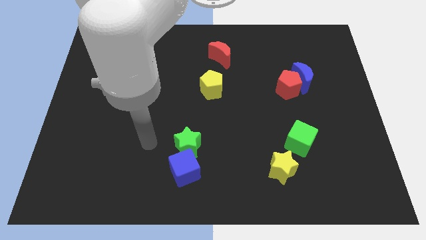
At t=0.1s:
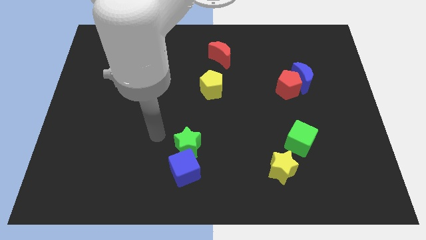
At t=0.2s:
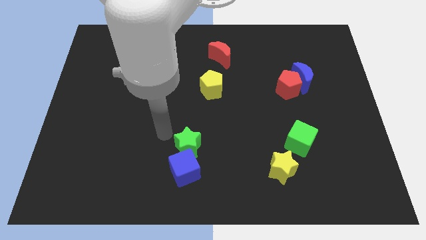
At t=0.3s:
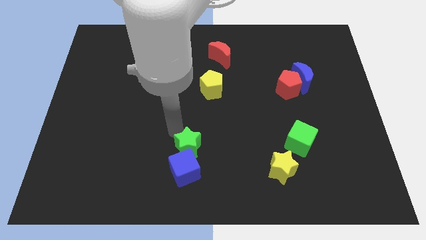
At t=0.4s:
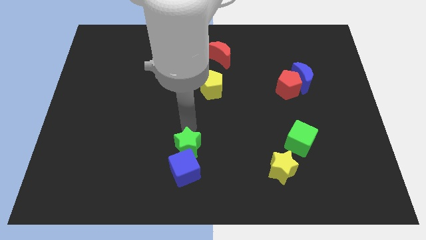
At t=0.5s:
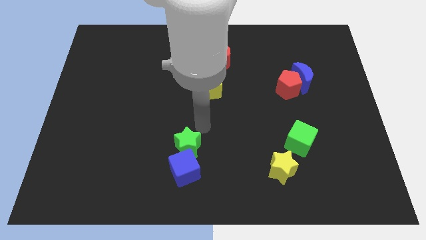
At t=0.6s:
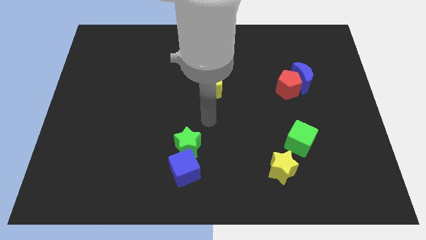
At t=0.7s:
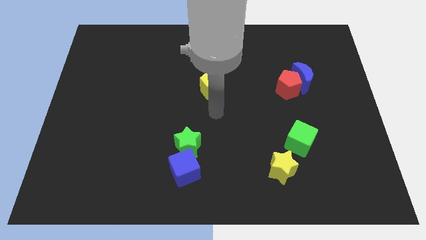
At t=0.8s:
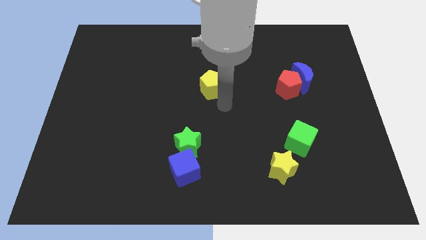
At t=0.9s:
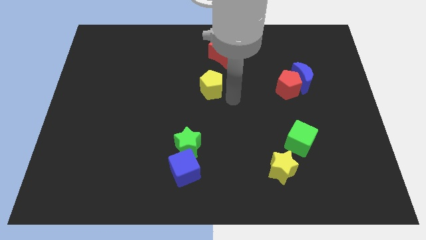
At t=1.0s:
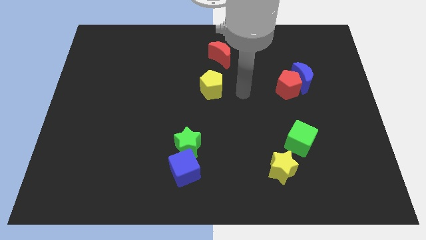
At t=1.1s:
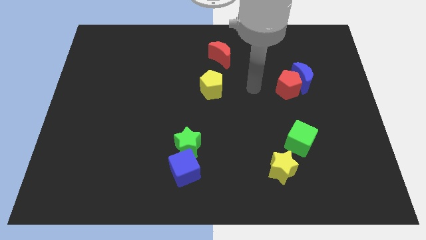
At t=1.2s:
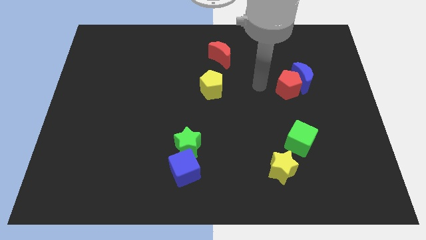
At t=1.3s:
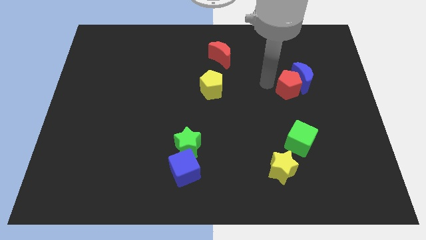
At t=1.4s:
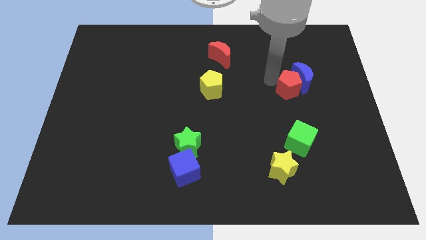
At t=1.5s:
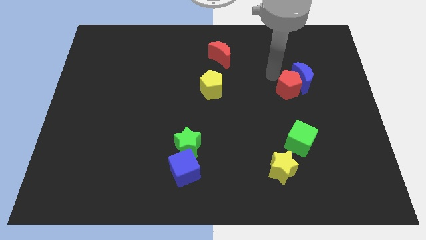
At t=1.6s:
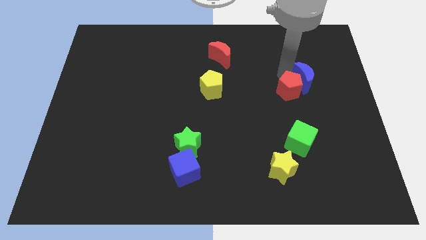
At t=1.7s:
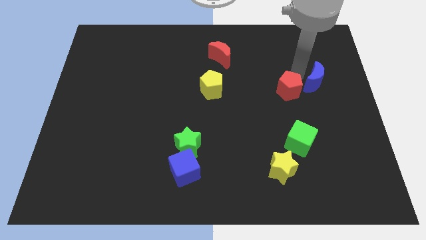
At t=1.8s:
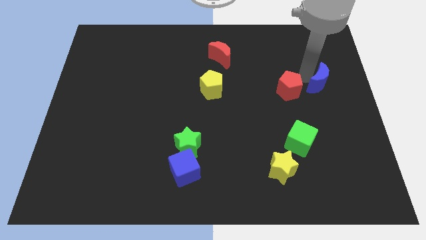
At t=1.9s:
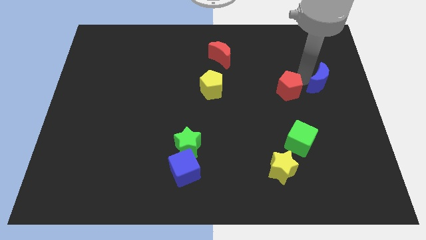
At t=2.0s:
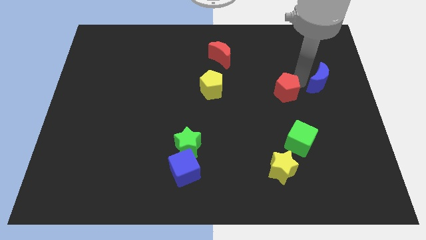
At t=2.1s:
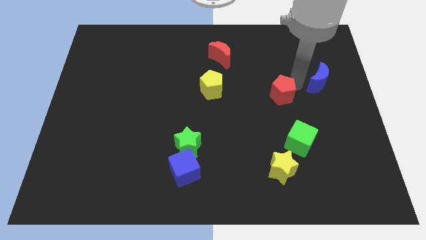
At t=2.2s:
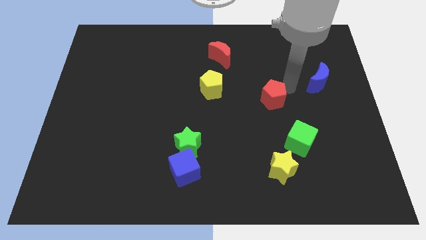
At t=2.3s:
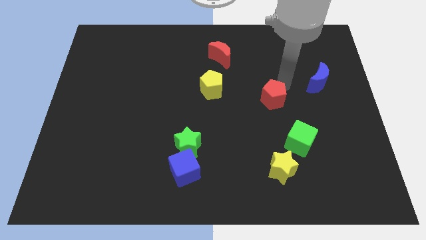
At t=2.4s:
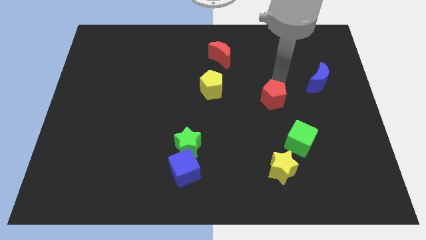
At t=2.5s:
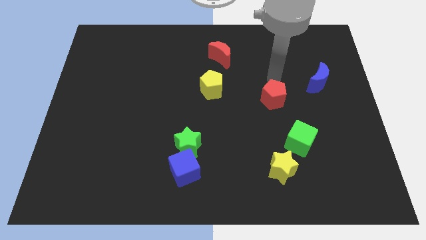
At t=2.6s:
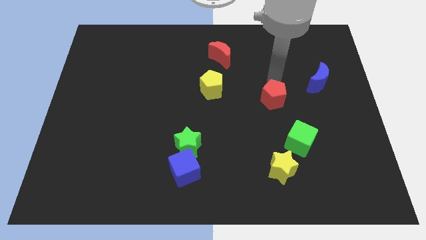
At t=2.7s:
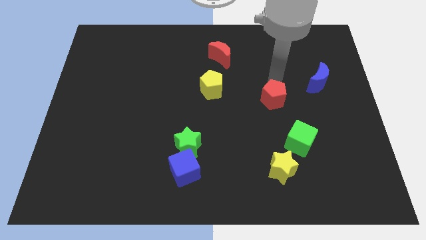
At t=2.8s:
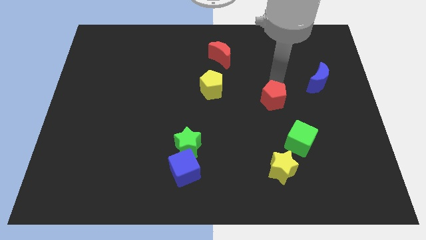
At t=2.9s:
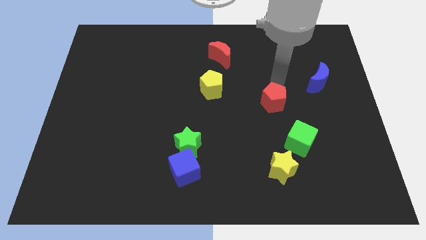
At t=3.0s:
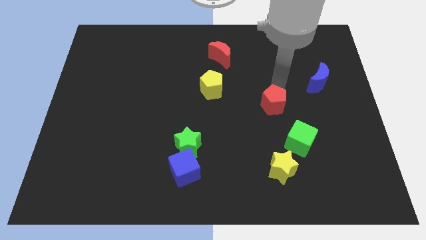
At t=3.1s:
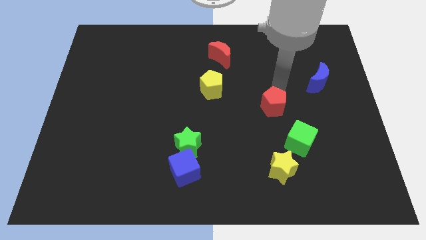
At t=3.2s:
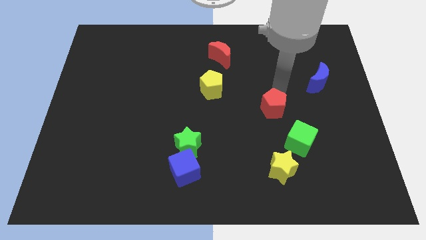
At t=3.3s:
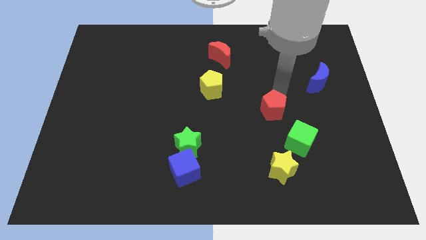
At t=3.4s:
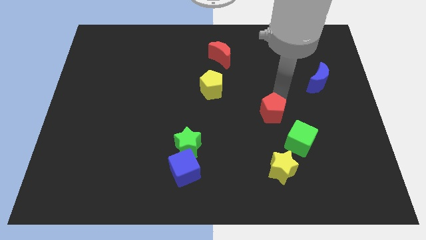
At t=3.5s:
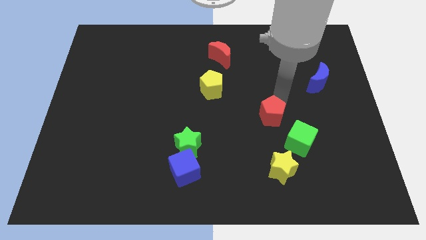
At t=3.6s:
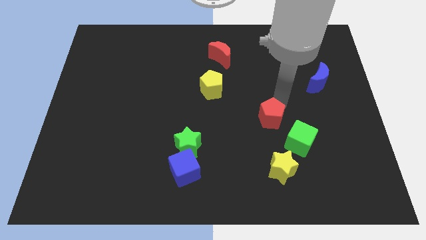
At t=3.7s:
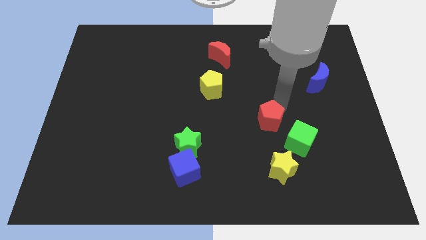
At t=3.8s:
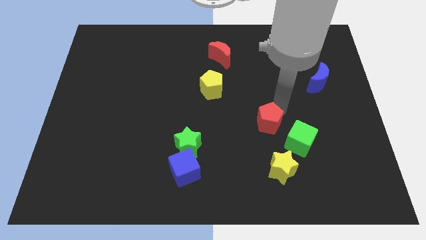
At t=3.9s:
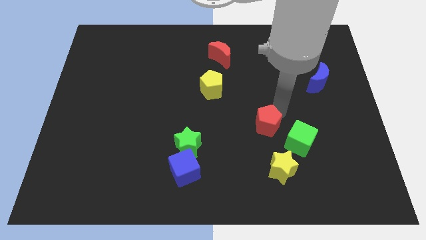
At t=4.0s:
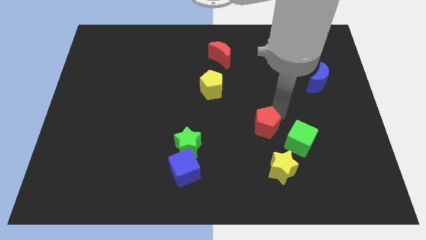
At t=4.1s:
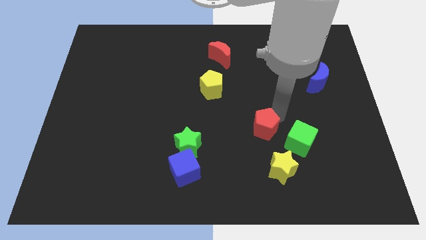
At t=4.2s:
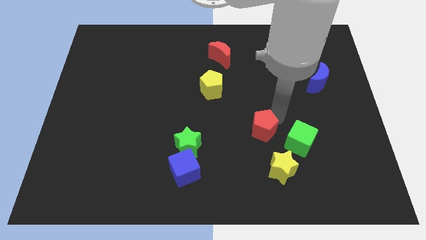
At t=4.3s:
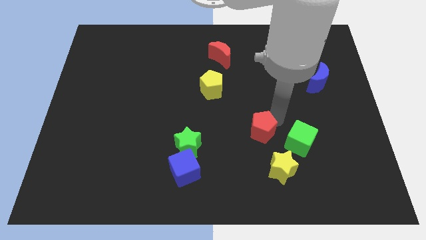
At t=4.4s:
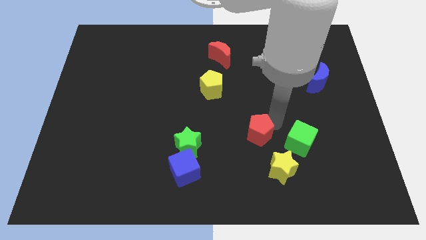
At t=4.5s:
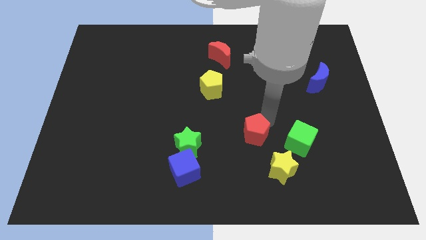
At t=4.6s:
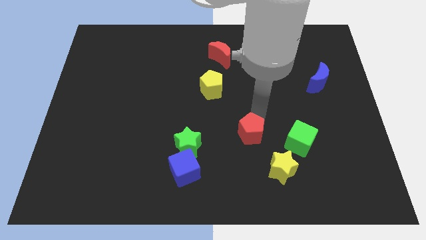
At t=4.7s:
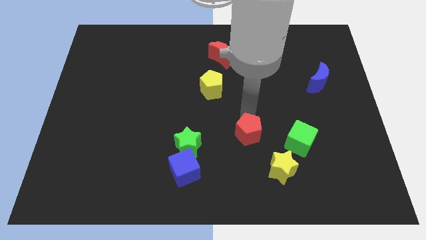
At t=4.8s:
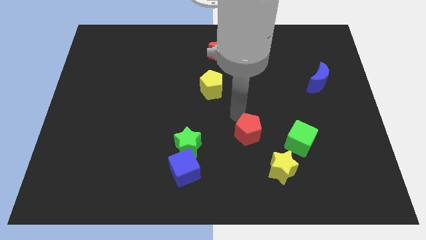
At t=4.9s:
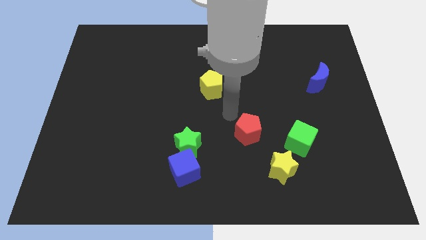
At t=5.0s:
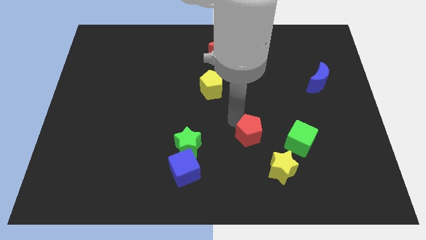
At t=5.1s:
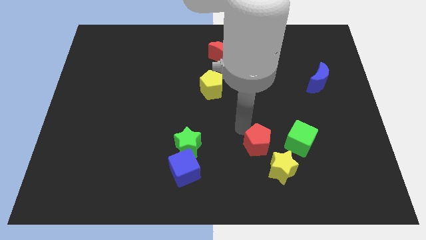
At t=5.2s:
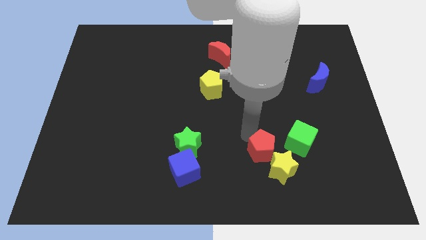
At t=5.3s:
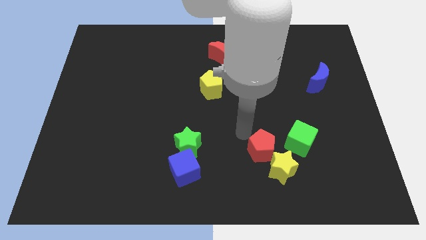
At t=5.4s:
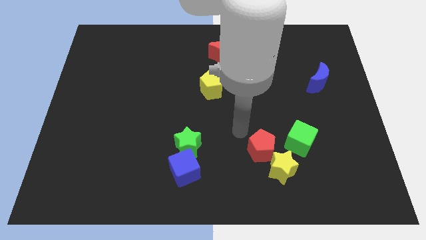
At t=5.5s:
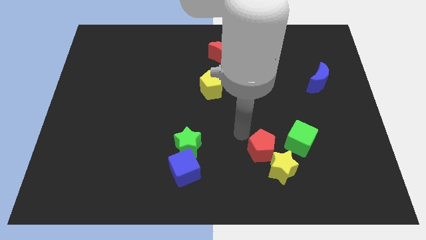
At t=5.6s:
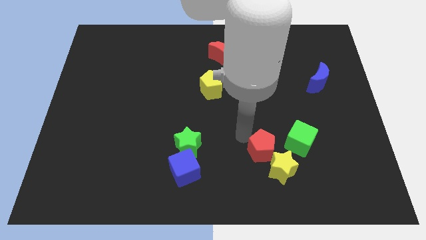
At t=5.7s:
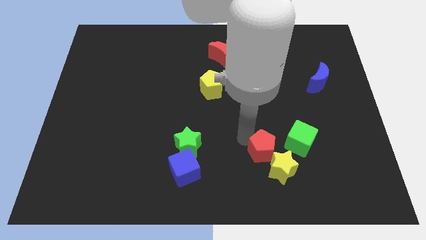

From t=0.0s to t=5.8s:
slide the red pentagon close to the yellow star

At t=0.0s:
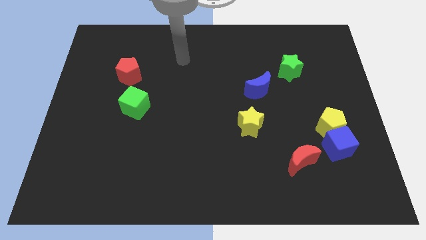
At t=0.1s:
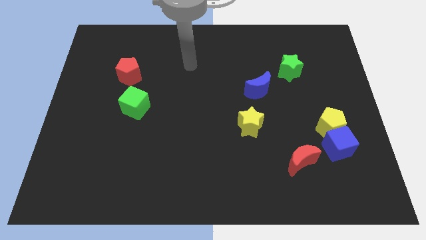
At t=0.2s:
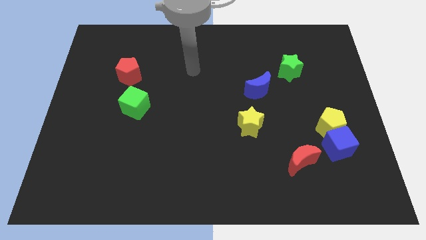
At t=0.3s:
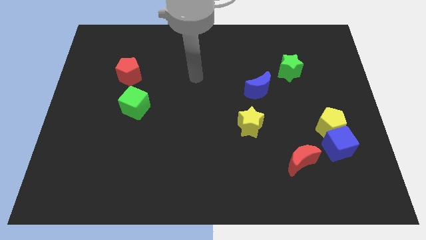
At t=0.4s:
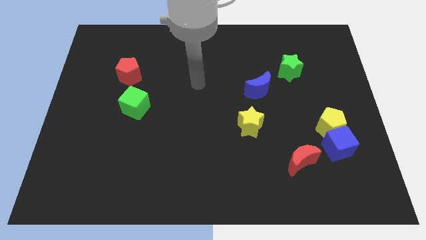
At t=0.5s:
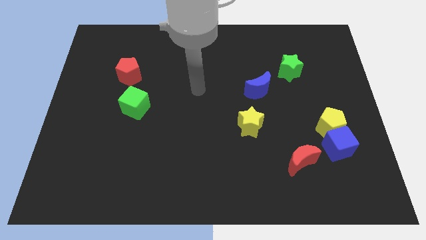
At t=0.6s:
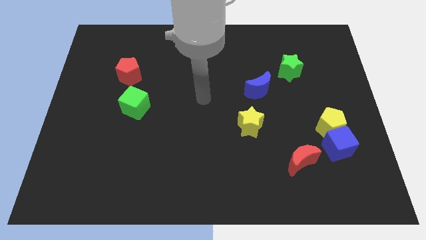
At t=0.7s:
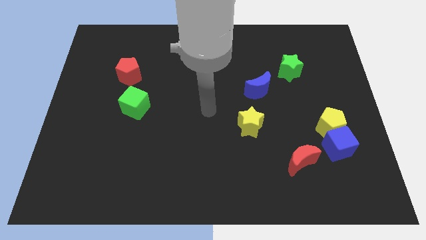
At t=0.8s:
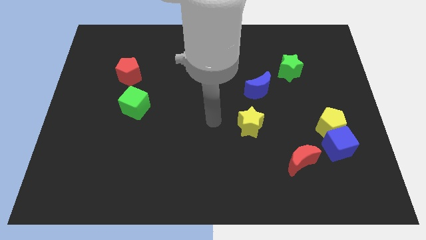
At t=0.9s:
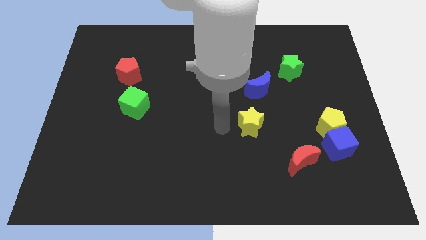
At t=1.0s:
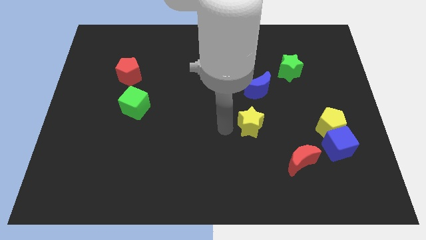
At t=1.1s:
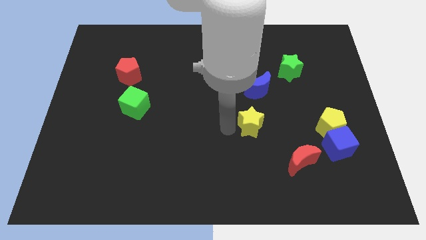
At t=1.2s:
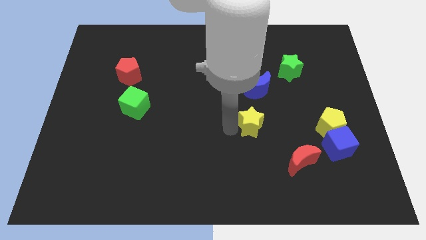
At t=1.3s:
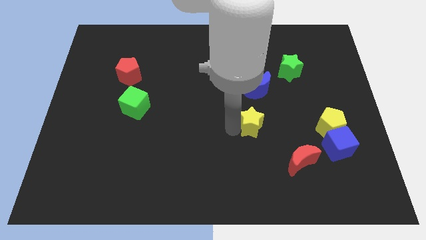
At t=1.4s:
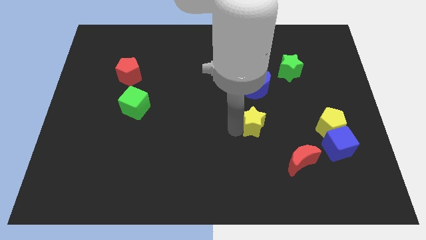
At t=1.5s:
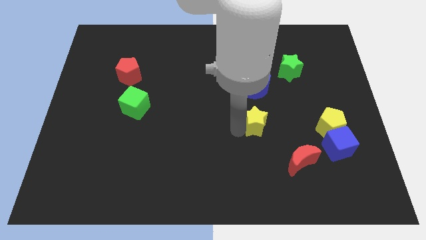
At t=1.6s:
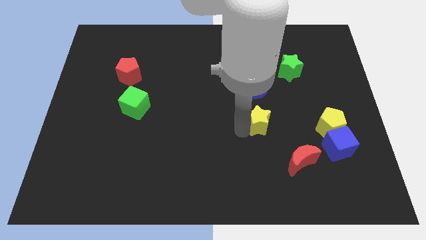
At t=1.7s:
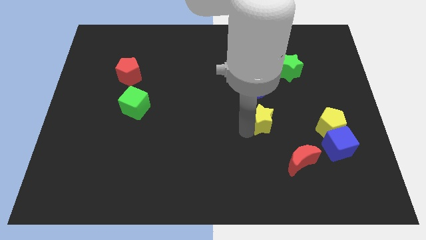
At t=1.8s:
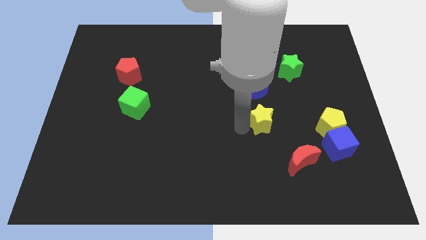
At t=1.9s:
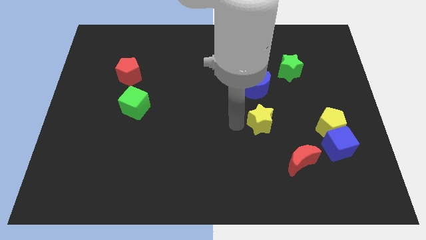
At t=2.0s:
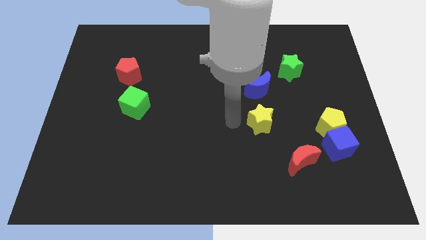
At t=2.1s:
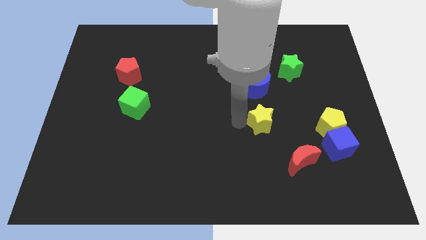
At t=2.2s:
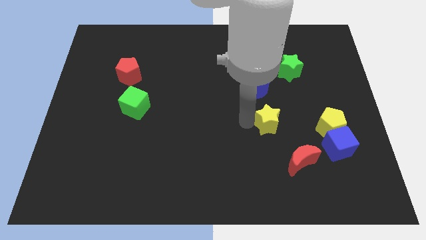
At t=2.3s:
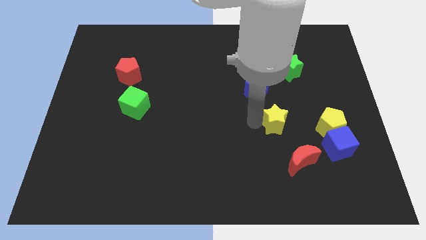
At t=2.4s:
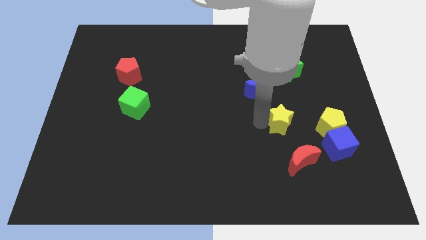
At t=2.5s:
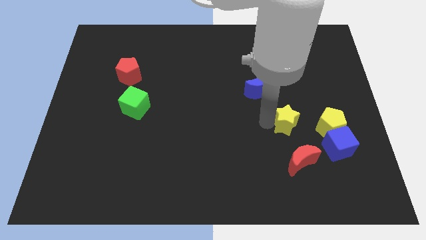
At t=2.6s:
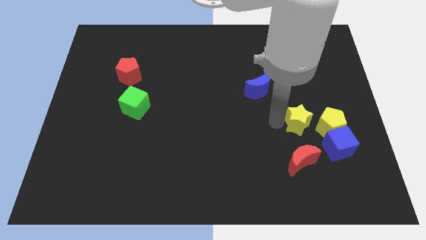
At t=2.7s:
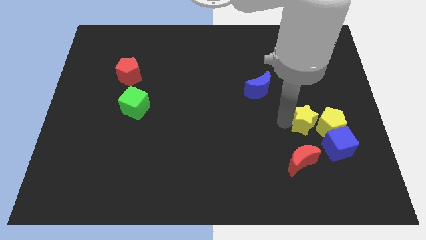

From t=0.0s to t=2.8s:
push the yellow star close to the yellow pentagon
